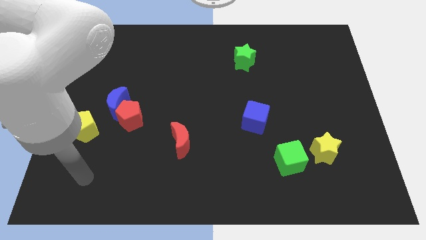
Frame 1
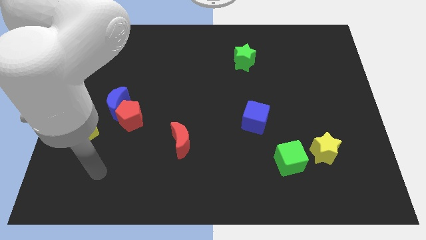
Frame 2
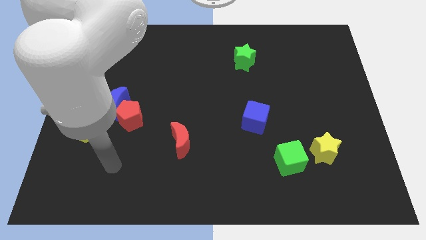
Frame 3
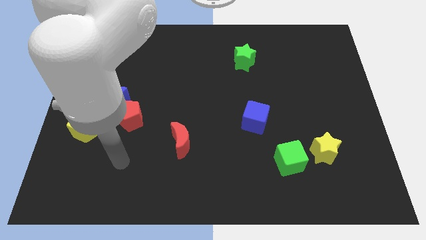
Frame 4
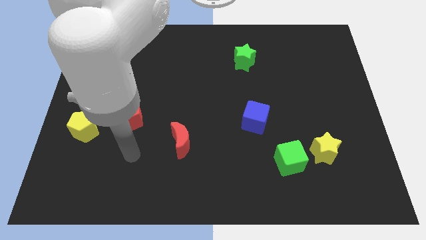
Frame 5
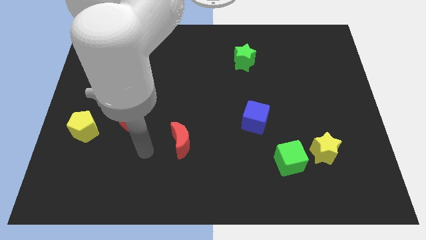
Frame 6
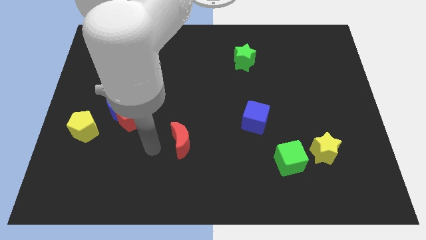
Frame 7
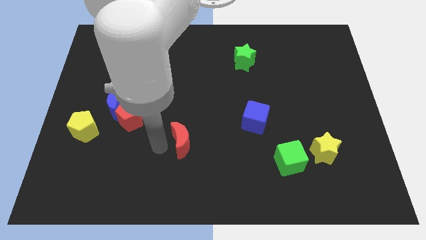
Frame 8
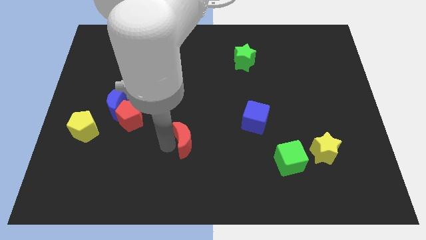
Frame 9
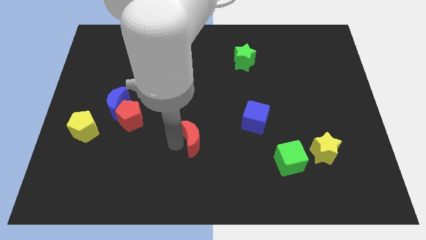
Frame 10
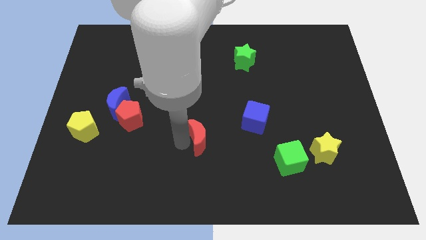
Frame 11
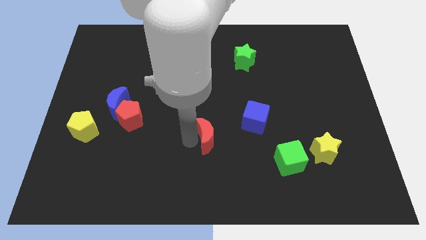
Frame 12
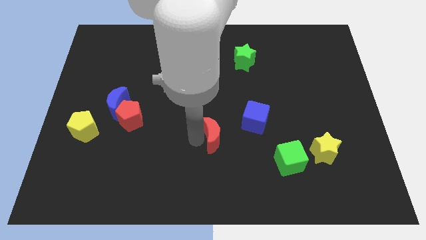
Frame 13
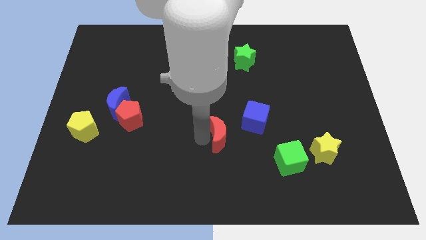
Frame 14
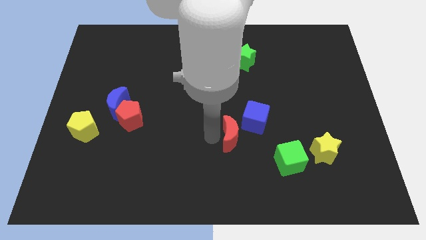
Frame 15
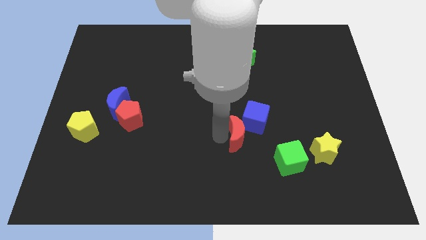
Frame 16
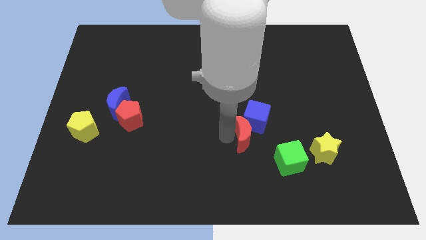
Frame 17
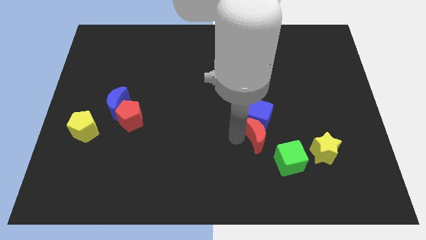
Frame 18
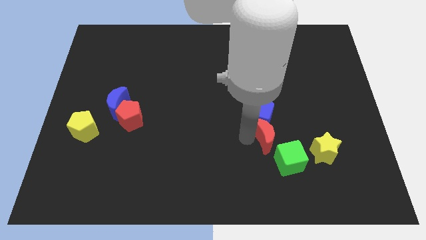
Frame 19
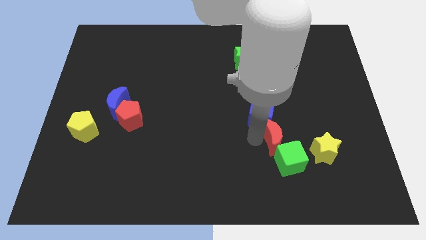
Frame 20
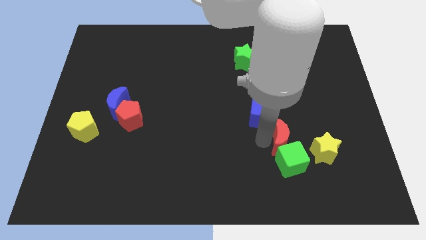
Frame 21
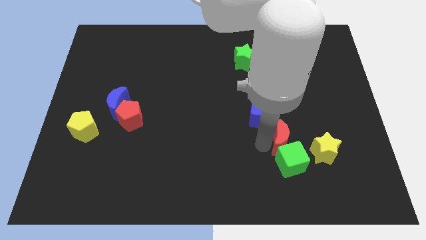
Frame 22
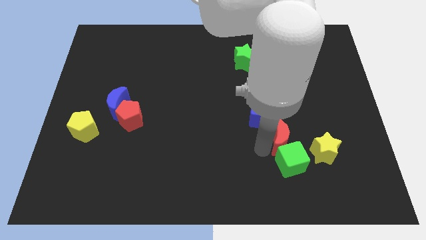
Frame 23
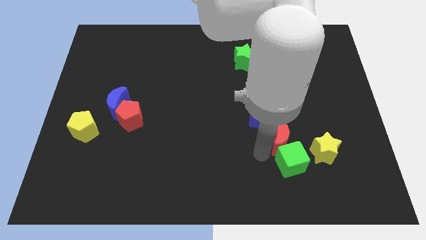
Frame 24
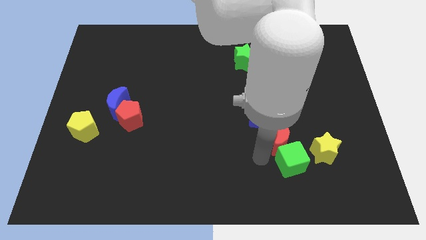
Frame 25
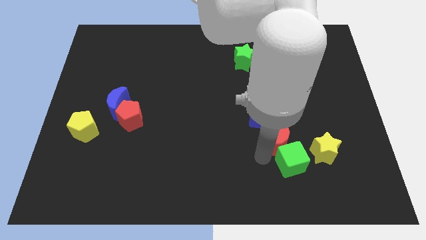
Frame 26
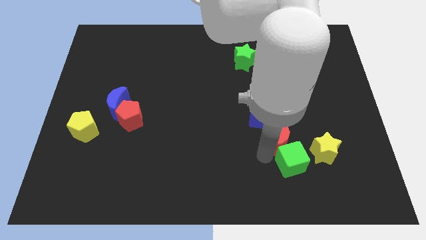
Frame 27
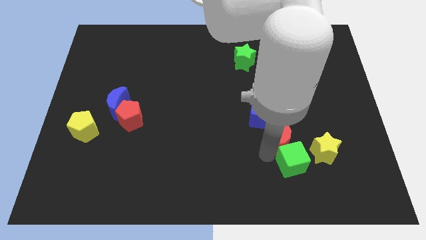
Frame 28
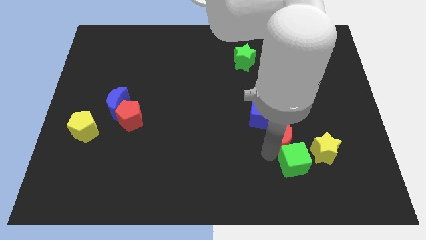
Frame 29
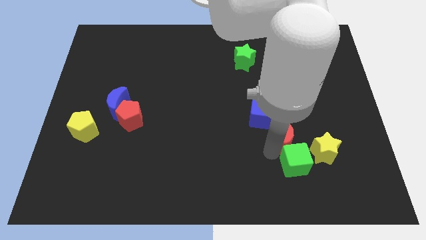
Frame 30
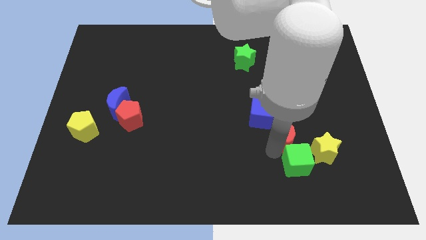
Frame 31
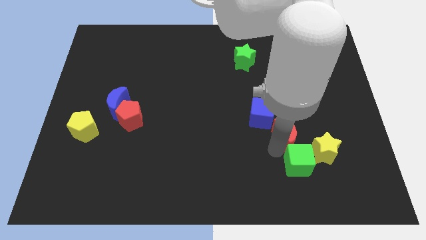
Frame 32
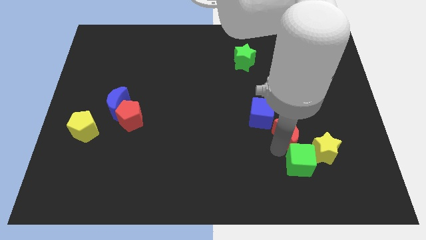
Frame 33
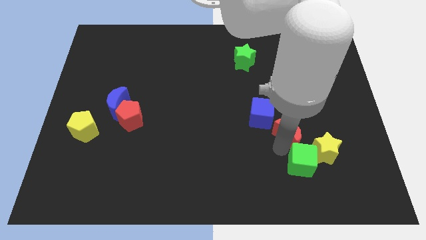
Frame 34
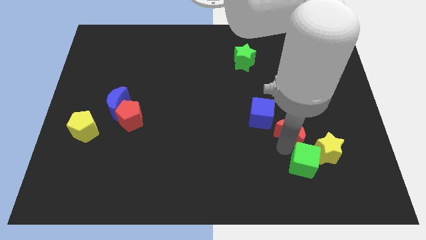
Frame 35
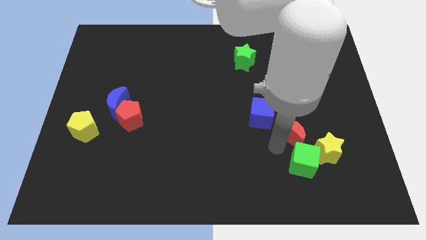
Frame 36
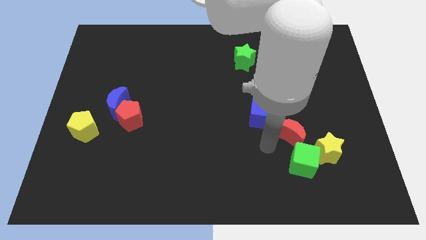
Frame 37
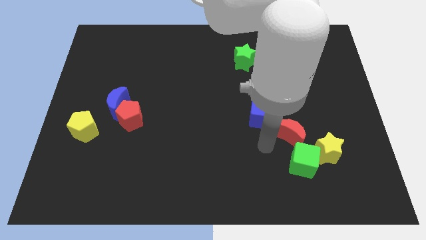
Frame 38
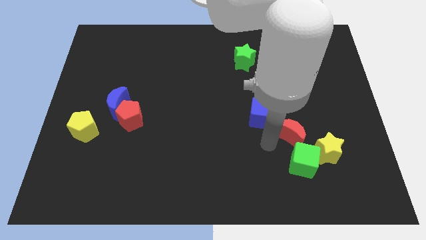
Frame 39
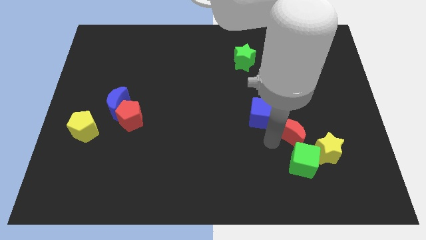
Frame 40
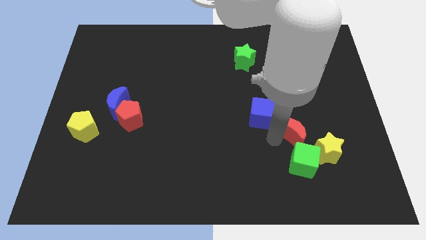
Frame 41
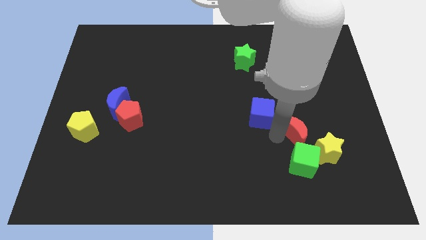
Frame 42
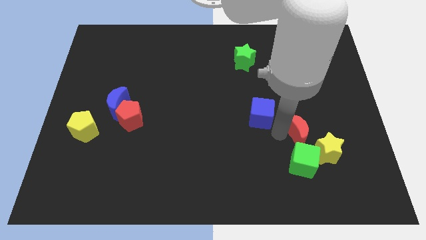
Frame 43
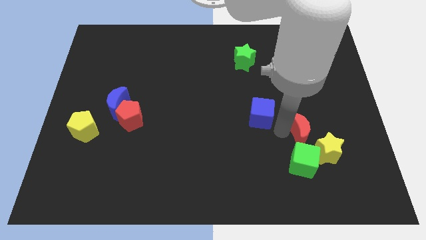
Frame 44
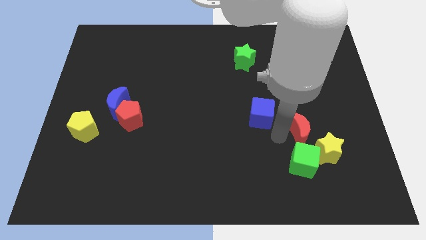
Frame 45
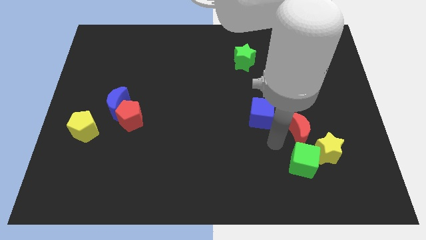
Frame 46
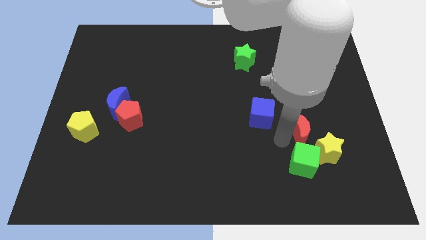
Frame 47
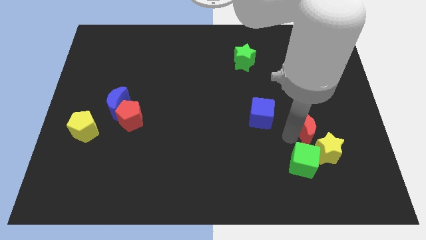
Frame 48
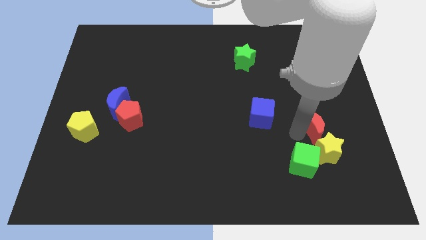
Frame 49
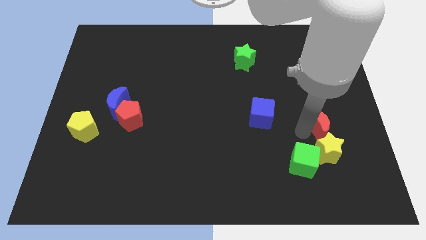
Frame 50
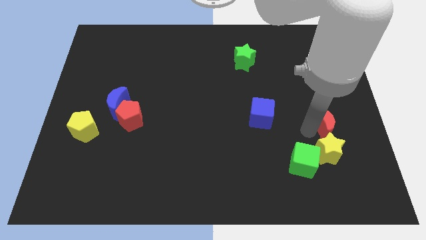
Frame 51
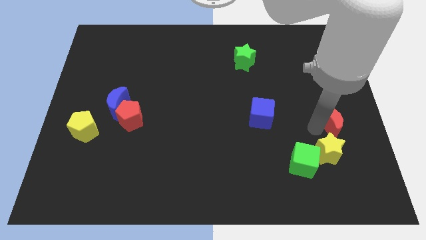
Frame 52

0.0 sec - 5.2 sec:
move the red moon to the right side of the board
